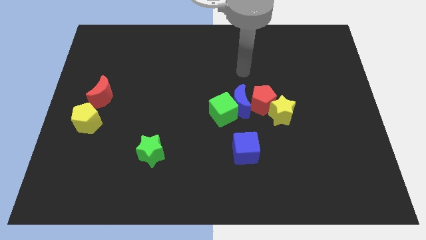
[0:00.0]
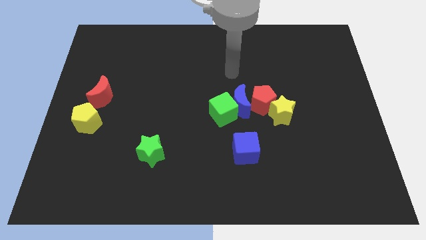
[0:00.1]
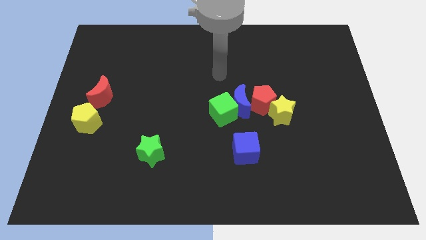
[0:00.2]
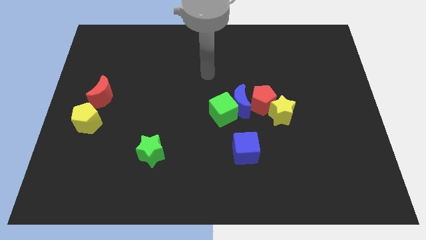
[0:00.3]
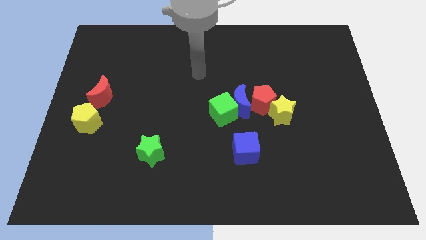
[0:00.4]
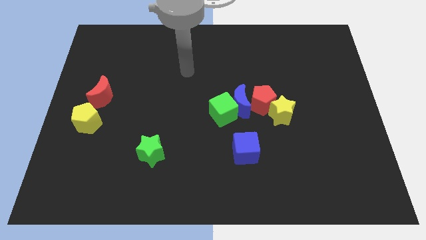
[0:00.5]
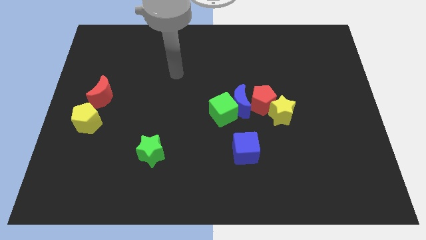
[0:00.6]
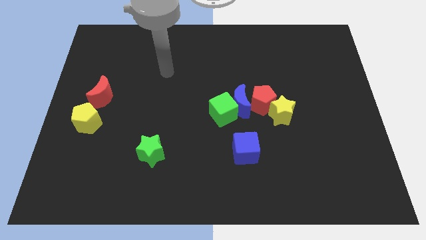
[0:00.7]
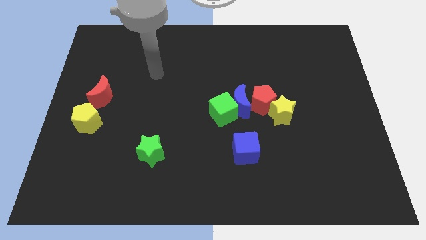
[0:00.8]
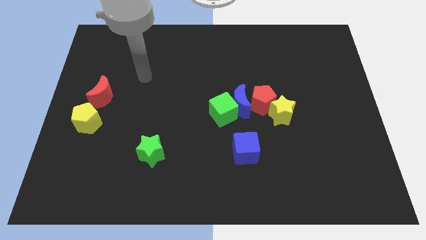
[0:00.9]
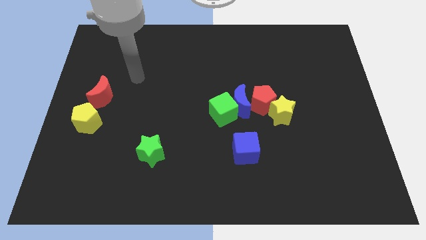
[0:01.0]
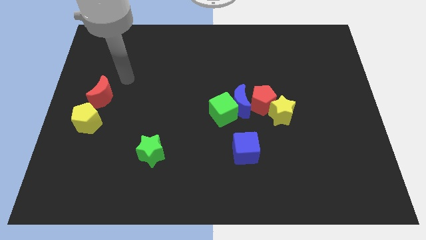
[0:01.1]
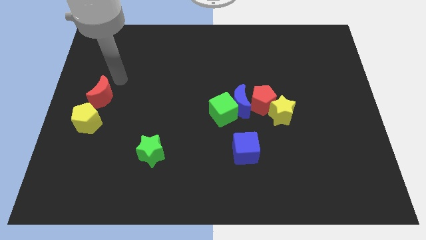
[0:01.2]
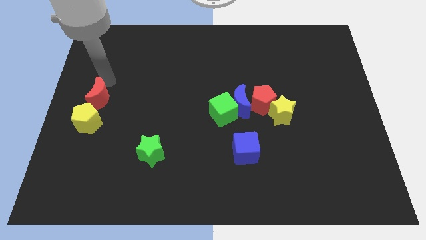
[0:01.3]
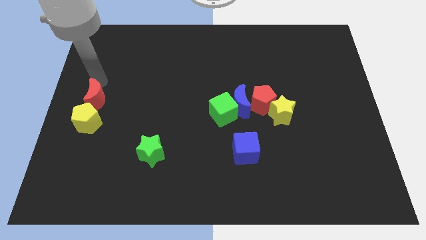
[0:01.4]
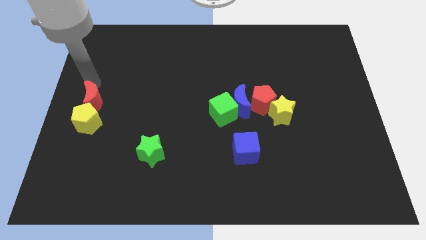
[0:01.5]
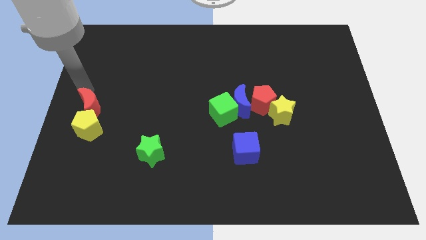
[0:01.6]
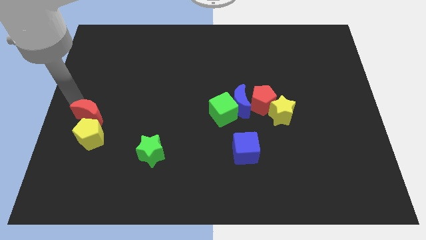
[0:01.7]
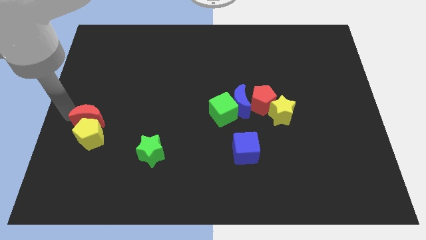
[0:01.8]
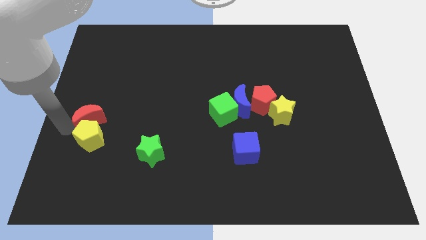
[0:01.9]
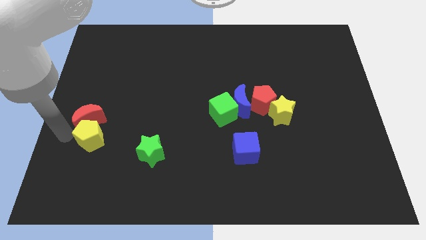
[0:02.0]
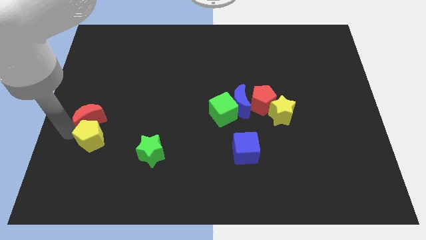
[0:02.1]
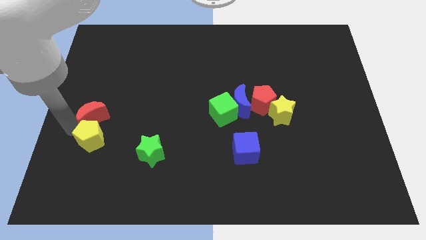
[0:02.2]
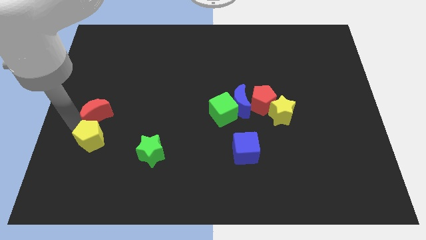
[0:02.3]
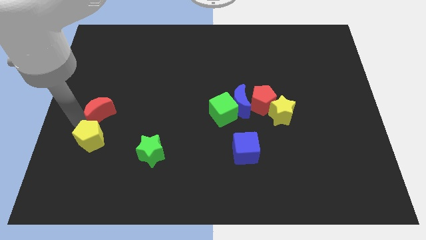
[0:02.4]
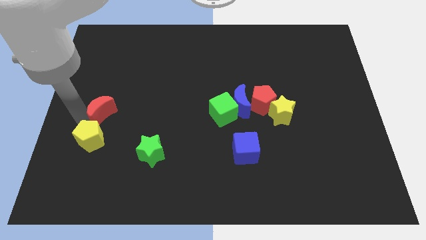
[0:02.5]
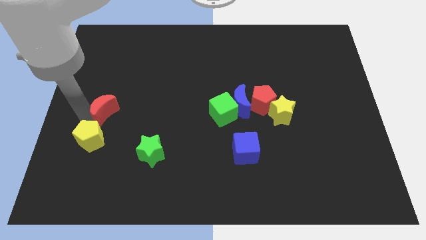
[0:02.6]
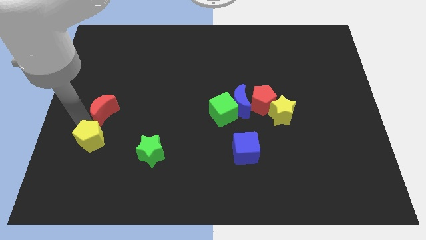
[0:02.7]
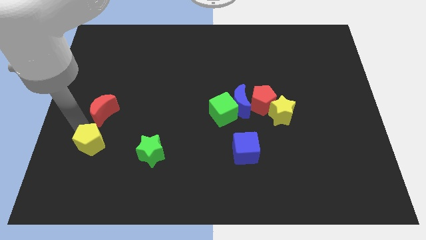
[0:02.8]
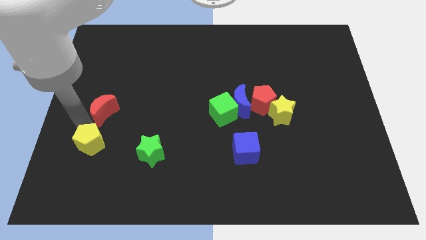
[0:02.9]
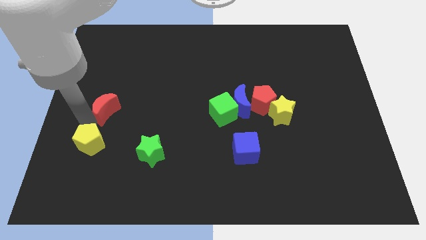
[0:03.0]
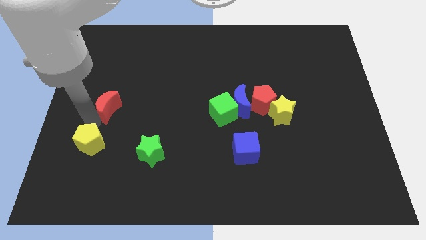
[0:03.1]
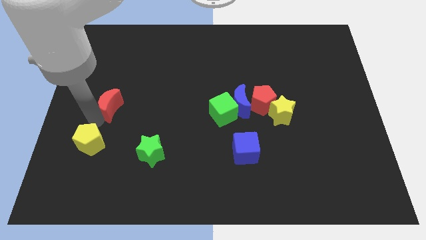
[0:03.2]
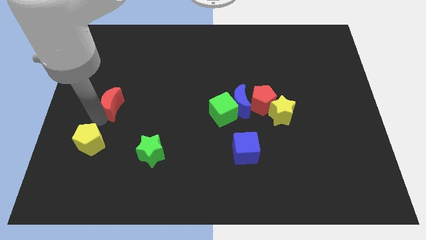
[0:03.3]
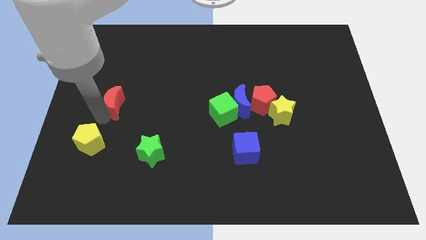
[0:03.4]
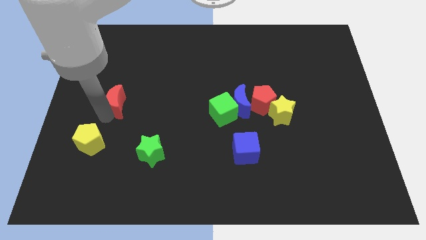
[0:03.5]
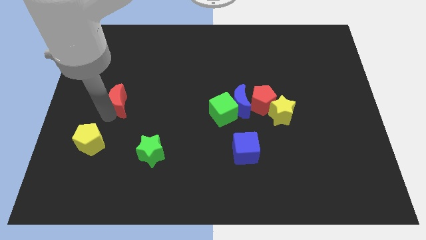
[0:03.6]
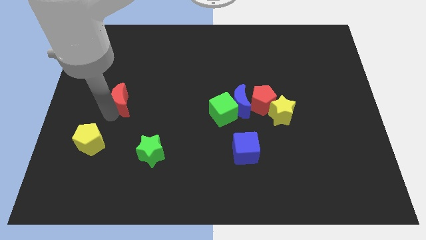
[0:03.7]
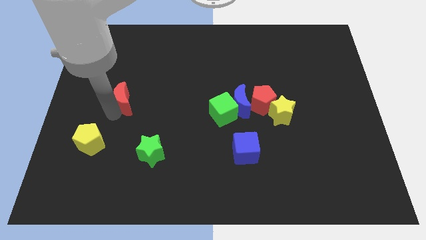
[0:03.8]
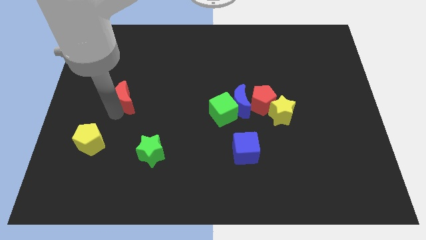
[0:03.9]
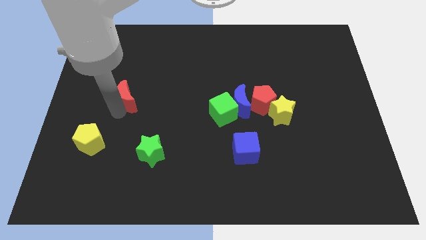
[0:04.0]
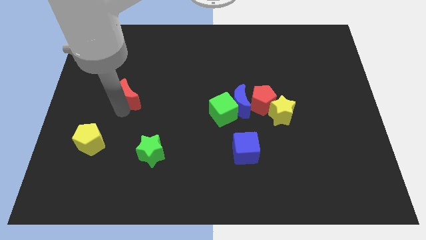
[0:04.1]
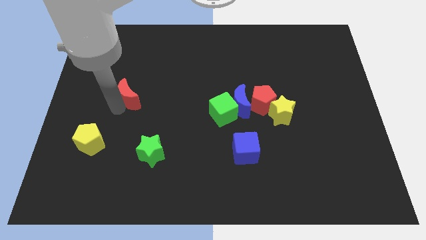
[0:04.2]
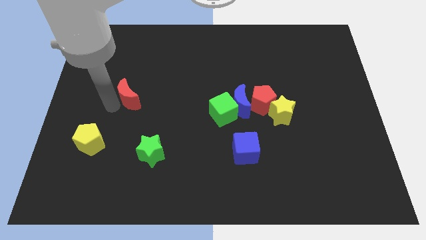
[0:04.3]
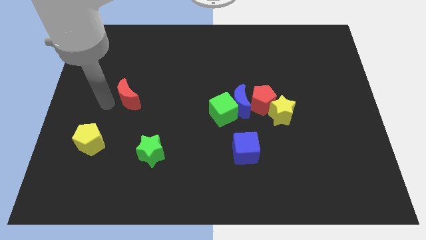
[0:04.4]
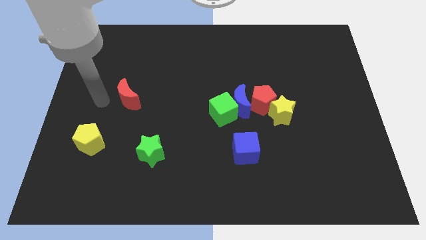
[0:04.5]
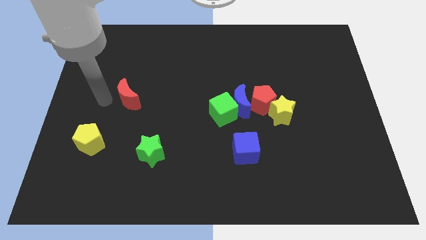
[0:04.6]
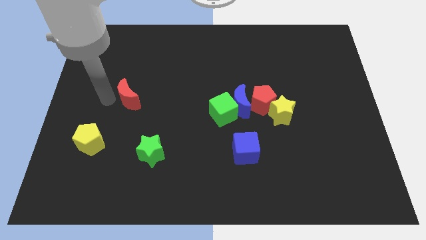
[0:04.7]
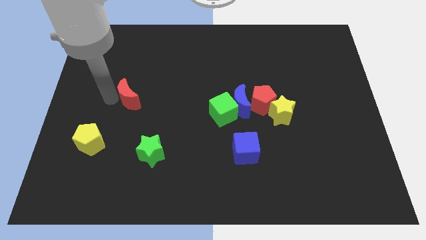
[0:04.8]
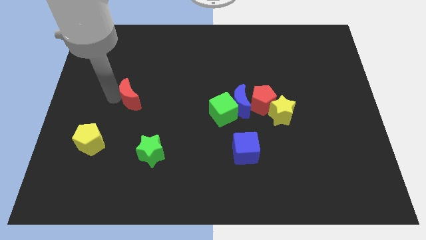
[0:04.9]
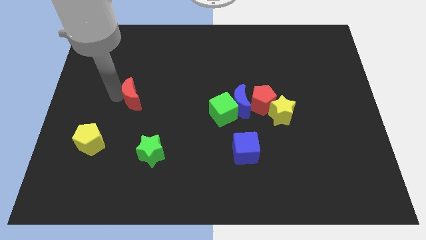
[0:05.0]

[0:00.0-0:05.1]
slide the red moon a little bit right

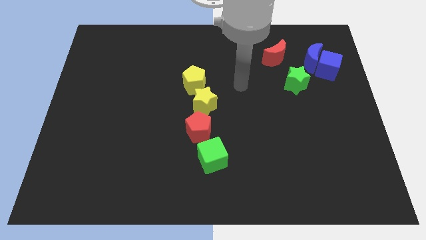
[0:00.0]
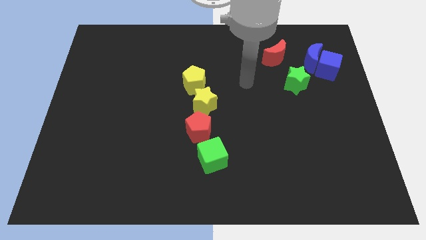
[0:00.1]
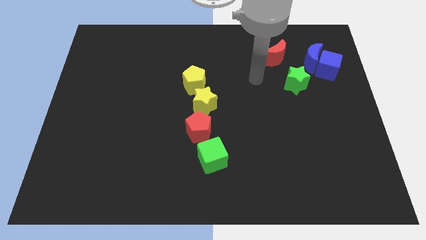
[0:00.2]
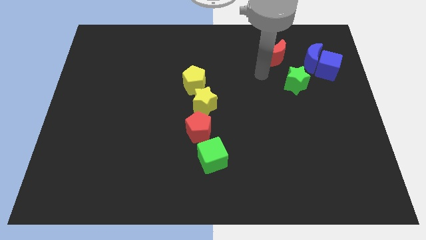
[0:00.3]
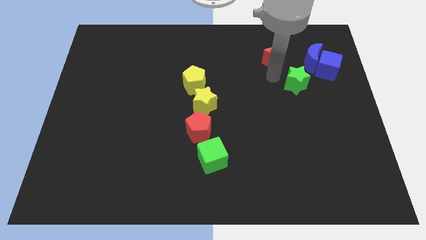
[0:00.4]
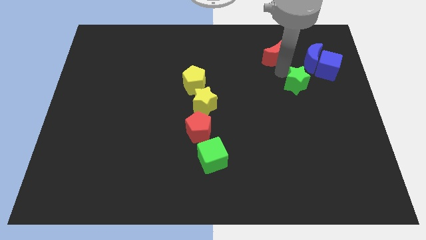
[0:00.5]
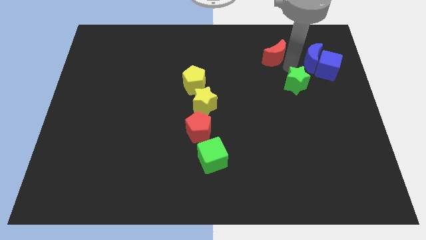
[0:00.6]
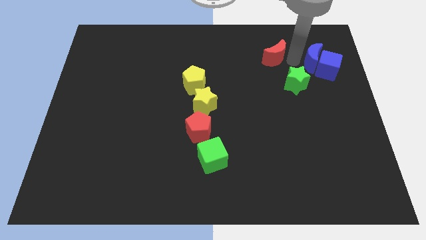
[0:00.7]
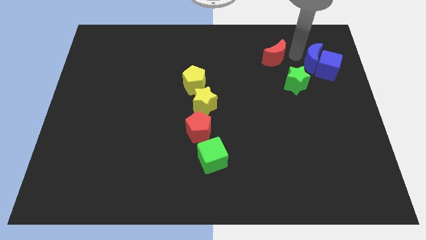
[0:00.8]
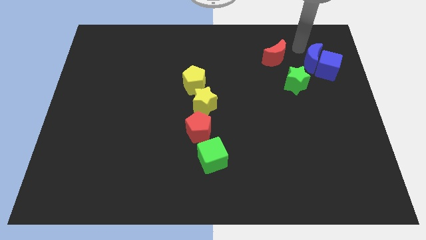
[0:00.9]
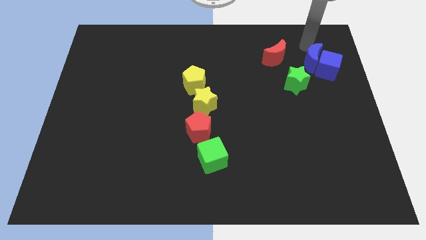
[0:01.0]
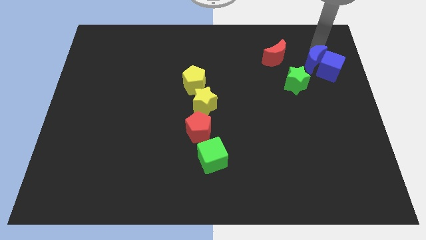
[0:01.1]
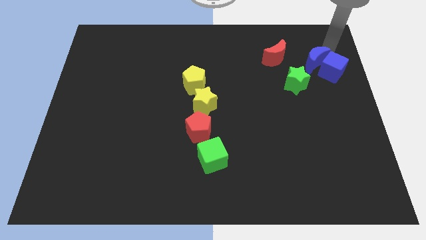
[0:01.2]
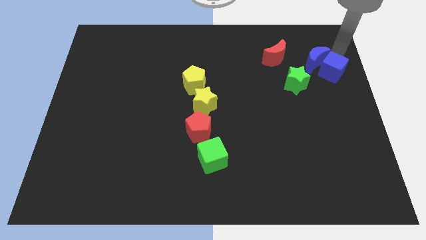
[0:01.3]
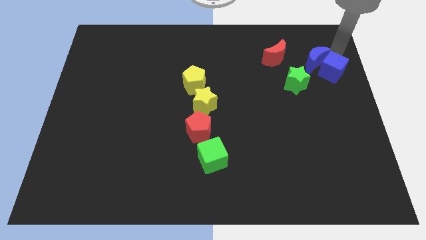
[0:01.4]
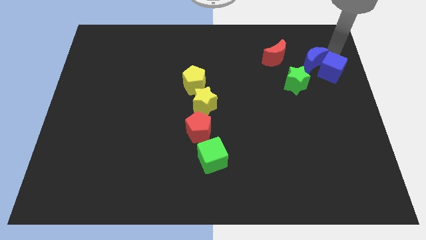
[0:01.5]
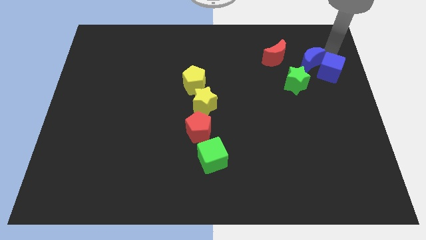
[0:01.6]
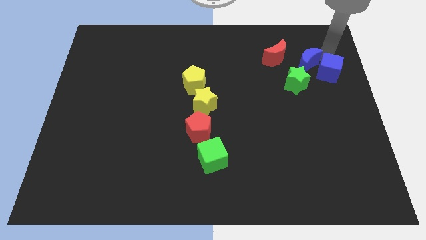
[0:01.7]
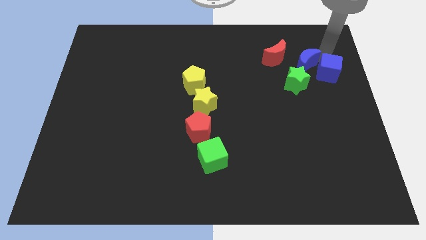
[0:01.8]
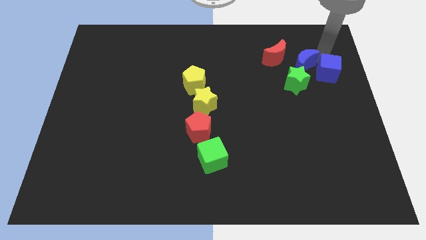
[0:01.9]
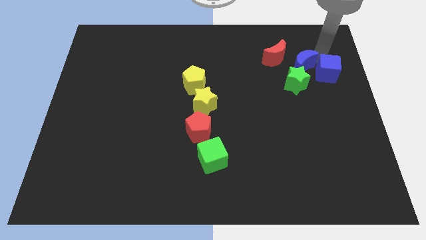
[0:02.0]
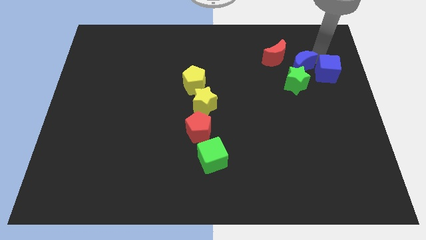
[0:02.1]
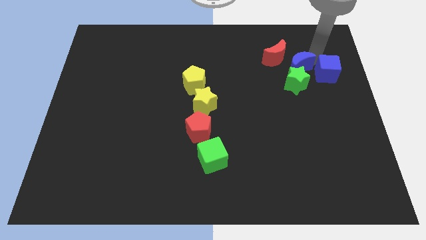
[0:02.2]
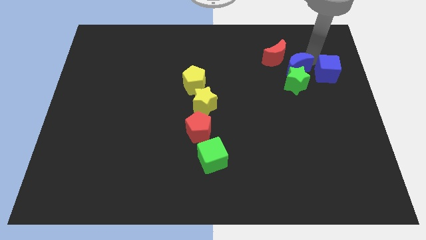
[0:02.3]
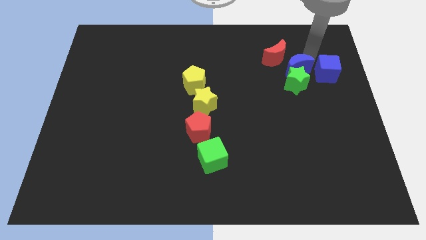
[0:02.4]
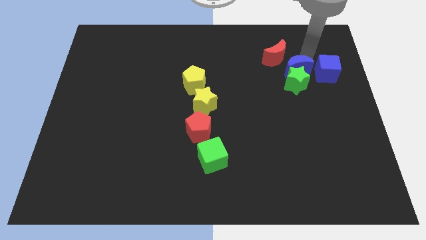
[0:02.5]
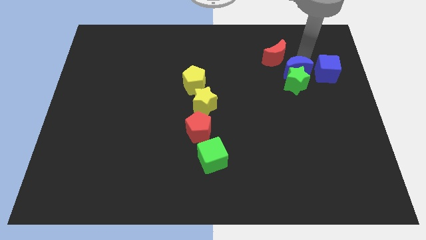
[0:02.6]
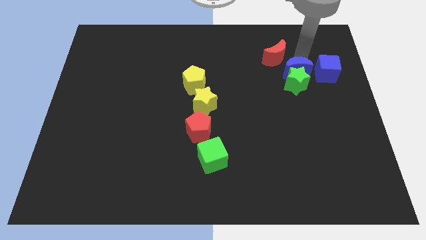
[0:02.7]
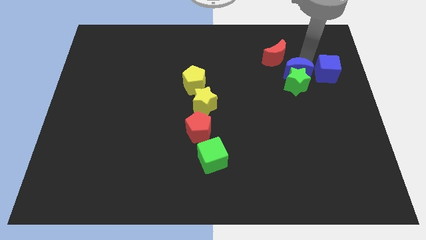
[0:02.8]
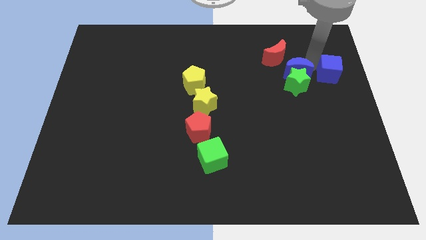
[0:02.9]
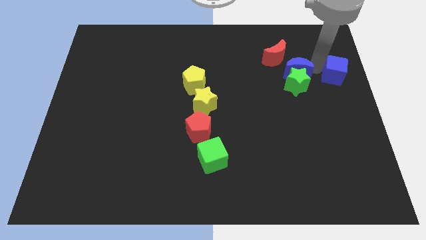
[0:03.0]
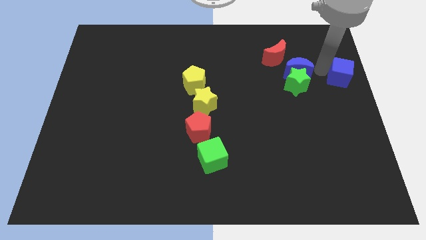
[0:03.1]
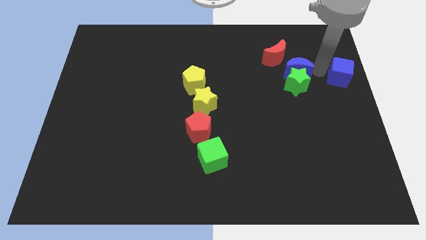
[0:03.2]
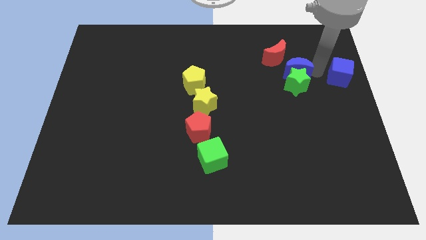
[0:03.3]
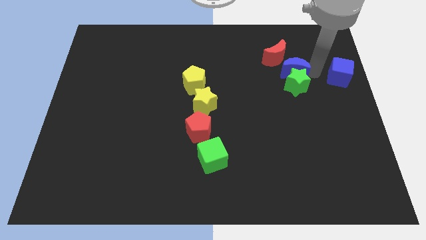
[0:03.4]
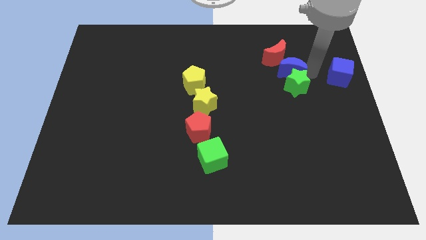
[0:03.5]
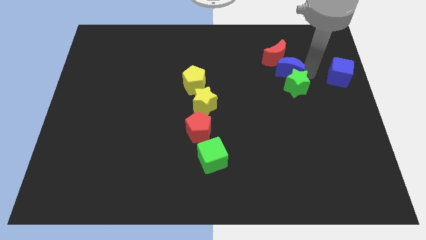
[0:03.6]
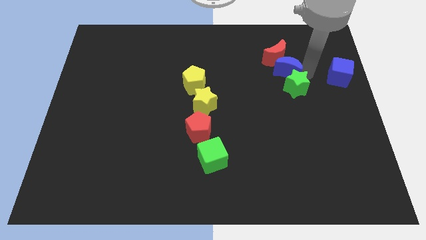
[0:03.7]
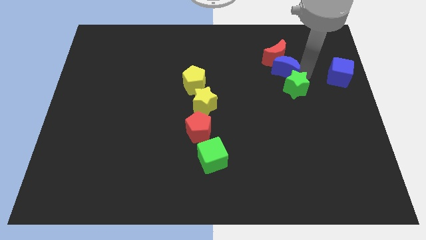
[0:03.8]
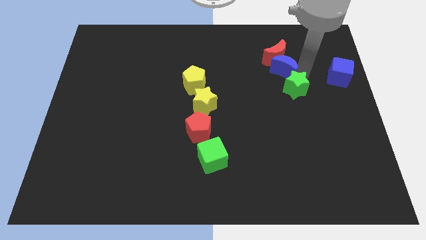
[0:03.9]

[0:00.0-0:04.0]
push the blue moon somewhat left
